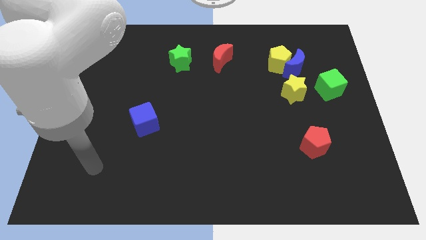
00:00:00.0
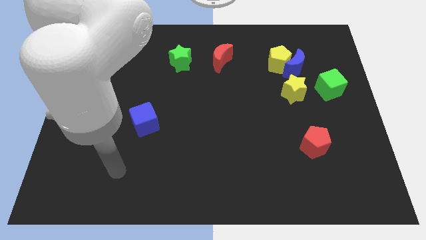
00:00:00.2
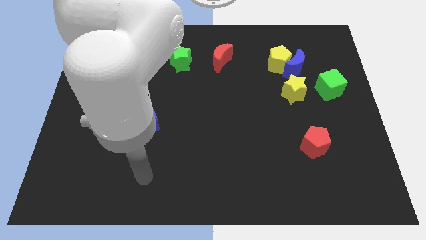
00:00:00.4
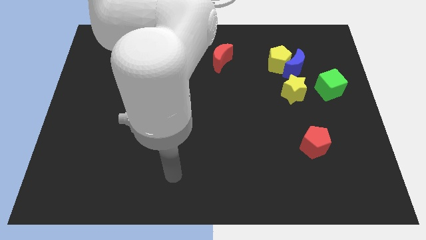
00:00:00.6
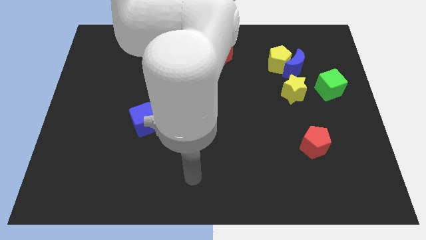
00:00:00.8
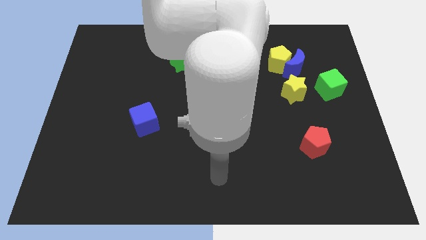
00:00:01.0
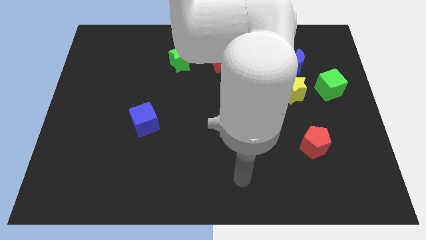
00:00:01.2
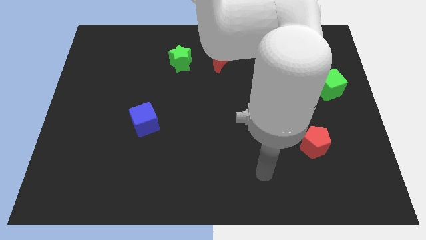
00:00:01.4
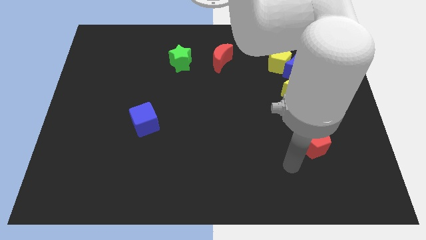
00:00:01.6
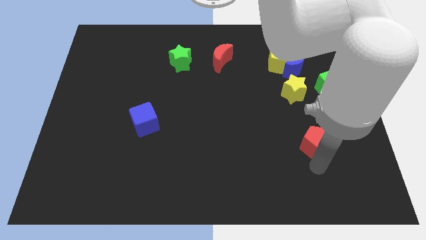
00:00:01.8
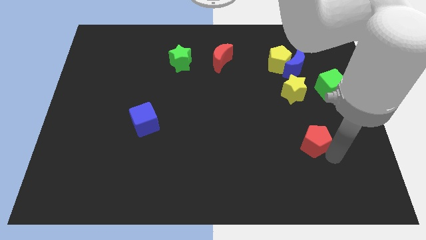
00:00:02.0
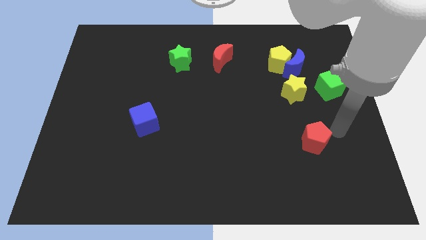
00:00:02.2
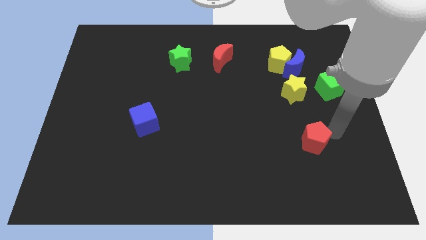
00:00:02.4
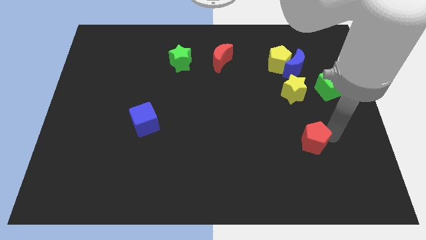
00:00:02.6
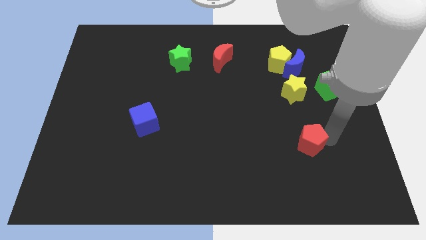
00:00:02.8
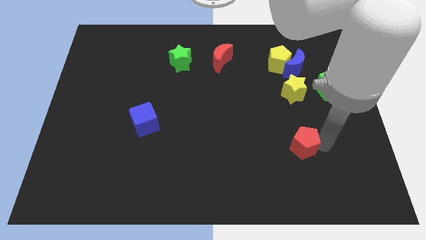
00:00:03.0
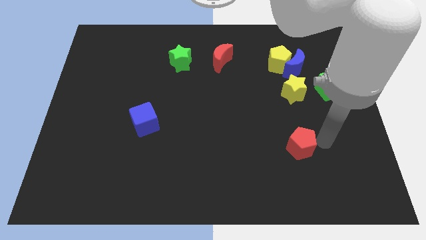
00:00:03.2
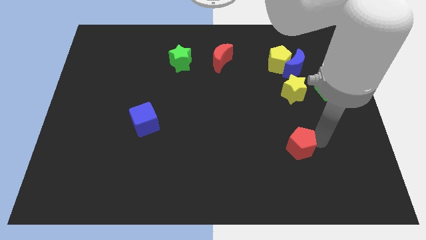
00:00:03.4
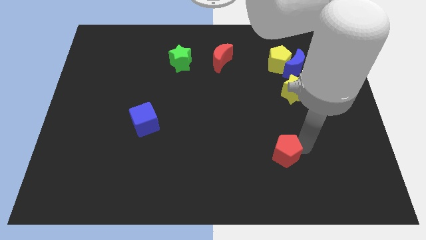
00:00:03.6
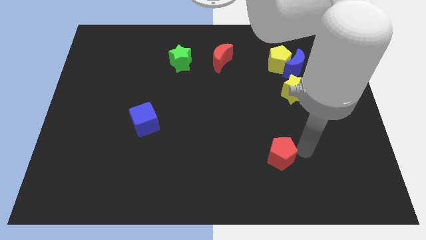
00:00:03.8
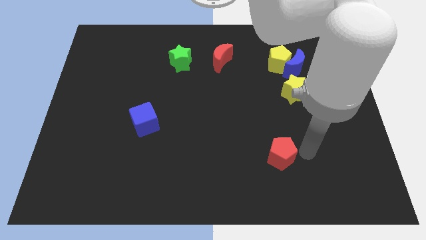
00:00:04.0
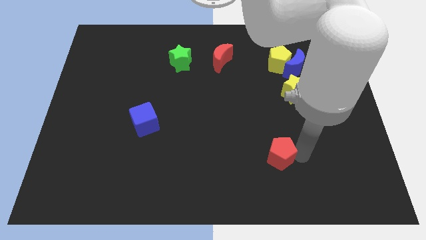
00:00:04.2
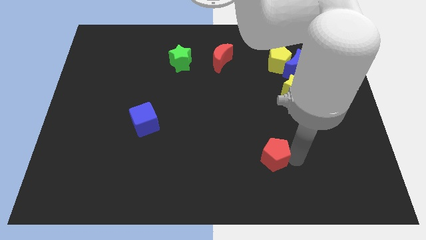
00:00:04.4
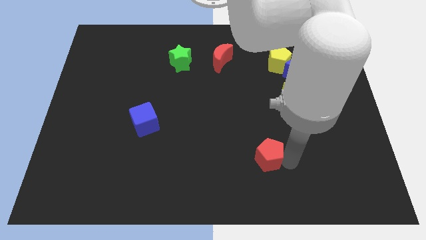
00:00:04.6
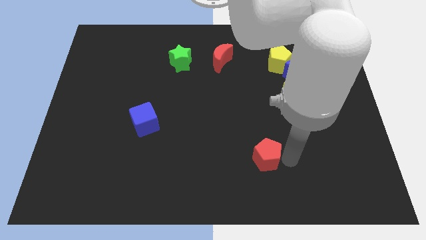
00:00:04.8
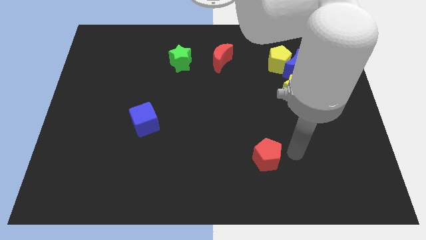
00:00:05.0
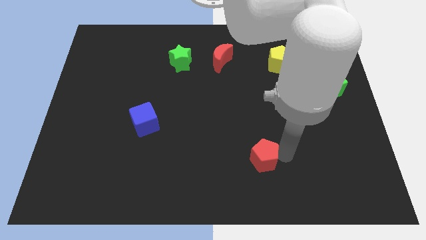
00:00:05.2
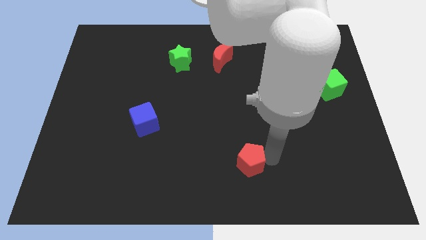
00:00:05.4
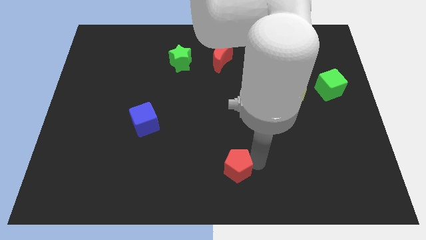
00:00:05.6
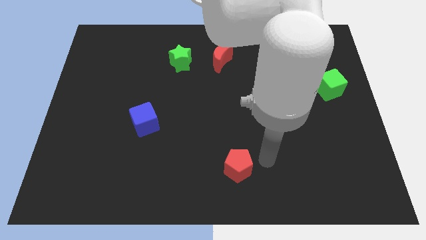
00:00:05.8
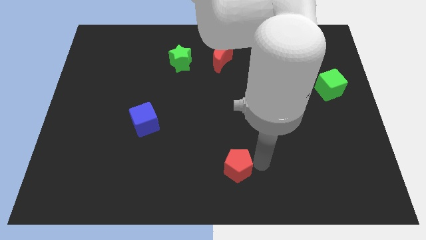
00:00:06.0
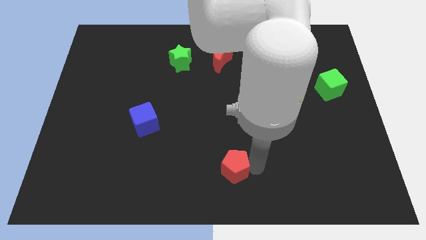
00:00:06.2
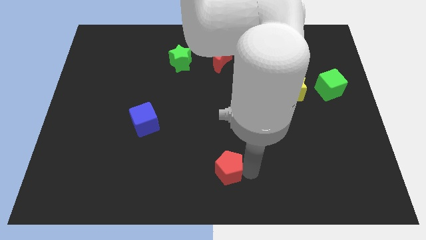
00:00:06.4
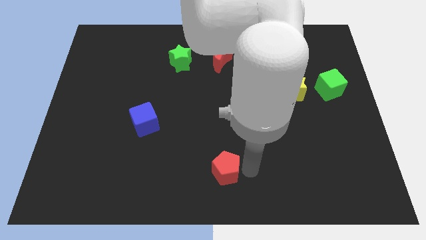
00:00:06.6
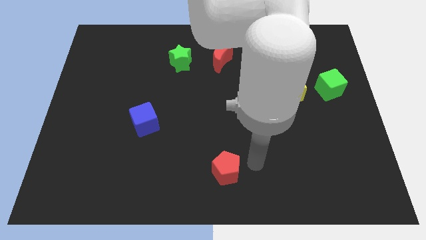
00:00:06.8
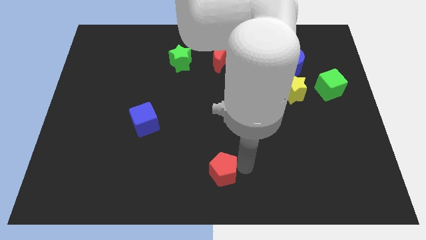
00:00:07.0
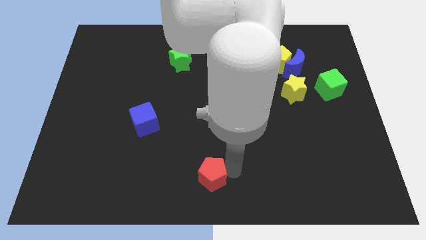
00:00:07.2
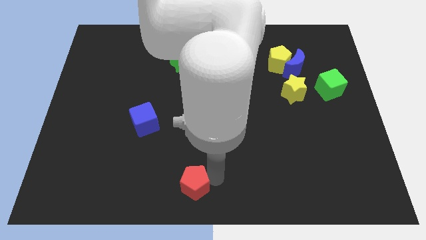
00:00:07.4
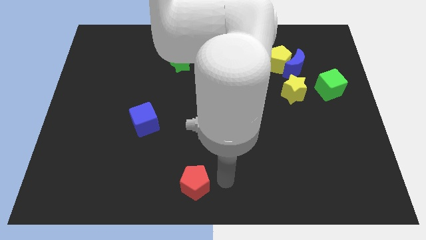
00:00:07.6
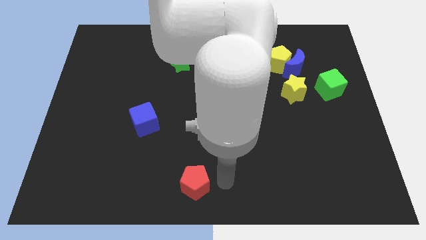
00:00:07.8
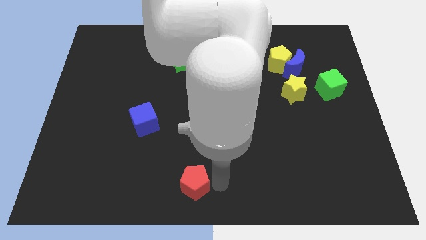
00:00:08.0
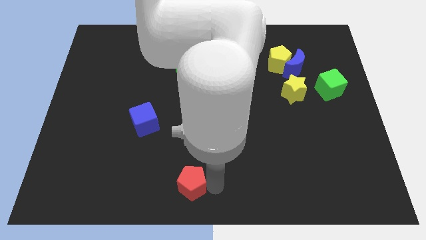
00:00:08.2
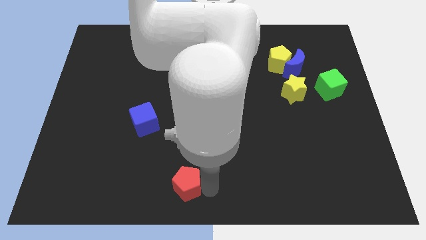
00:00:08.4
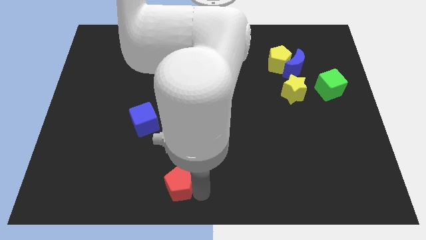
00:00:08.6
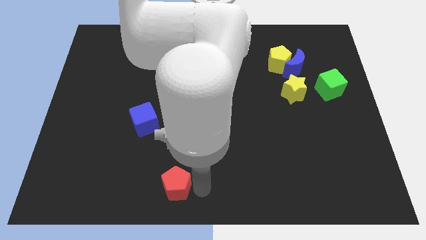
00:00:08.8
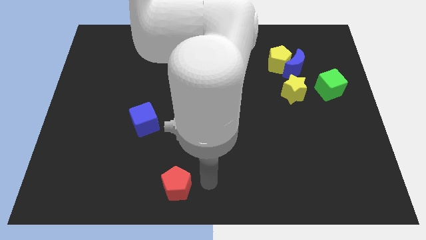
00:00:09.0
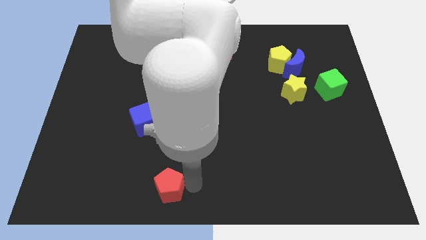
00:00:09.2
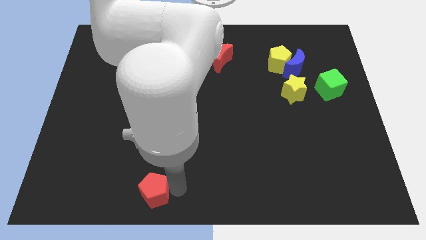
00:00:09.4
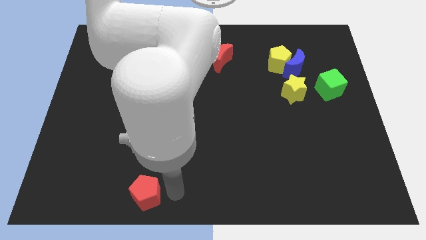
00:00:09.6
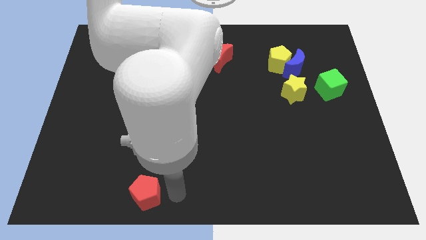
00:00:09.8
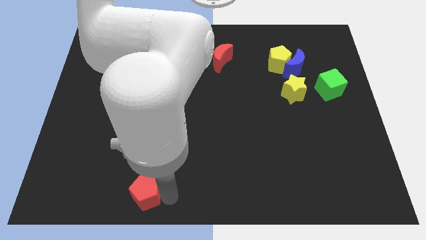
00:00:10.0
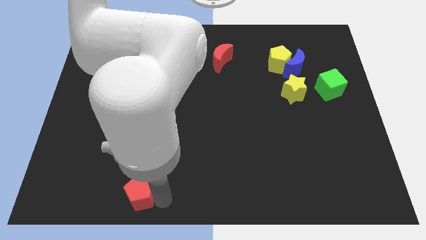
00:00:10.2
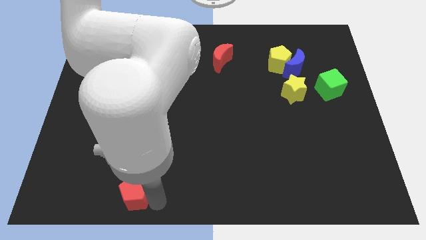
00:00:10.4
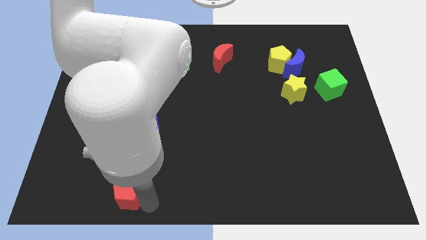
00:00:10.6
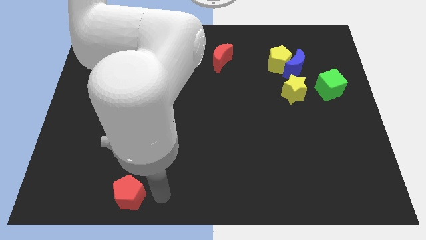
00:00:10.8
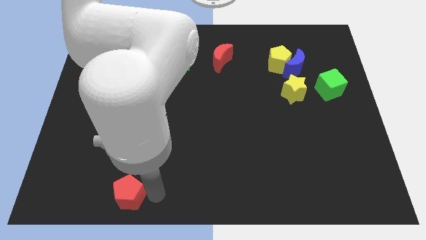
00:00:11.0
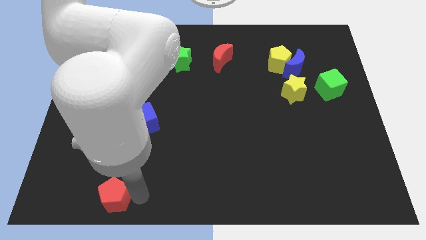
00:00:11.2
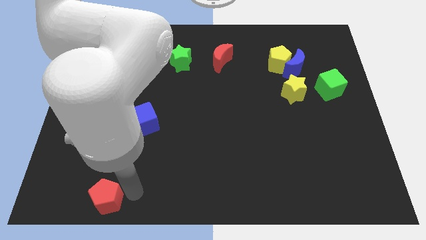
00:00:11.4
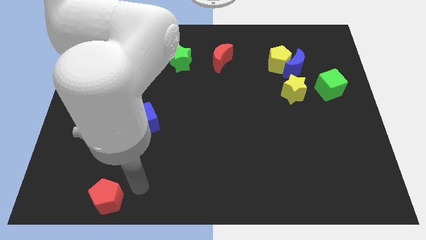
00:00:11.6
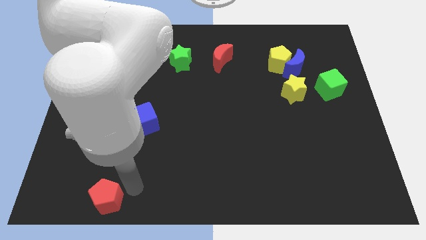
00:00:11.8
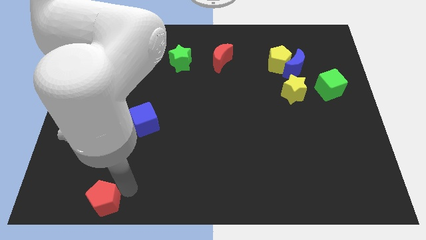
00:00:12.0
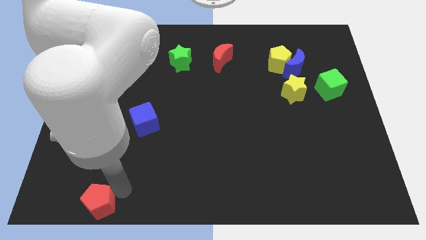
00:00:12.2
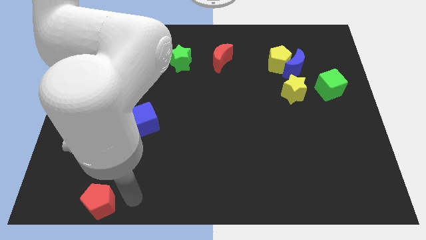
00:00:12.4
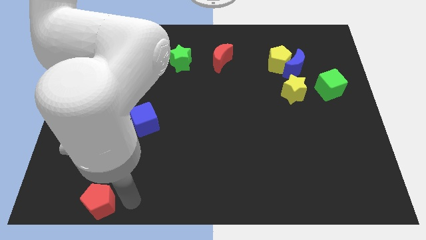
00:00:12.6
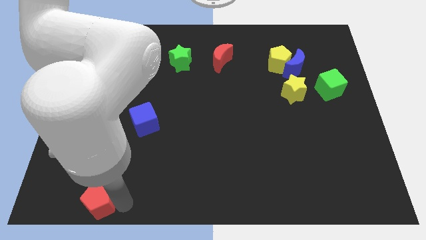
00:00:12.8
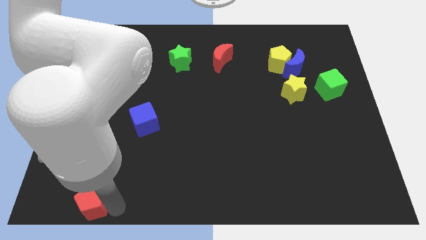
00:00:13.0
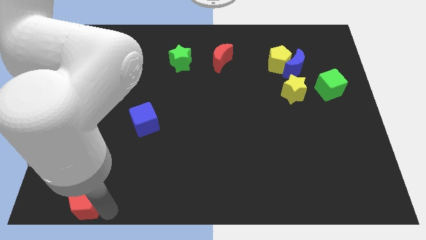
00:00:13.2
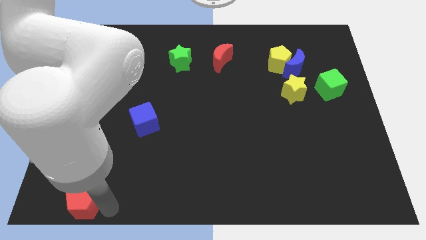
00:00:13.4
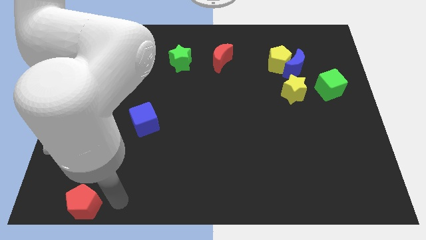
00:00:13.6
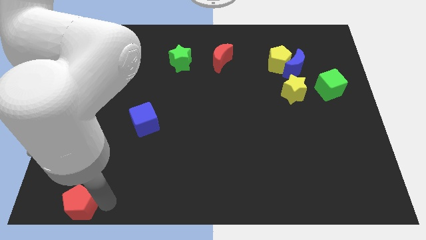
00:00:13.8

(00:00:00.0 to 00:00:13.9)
push the red pentagon to the bottom left corner
